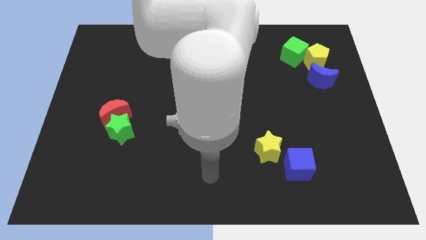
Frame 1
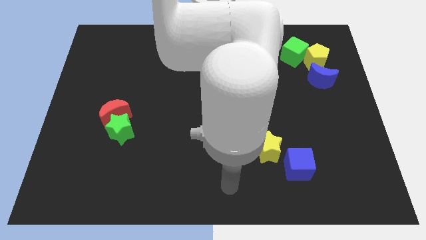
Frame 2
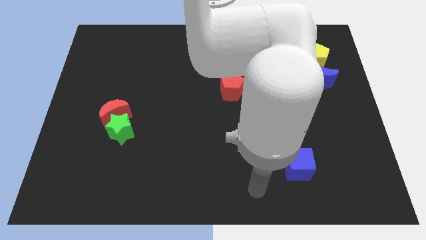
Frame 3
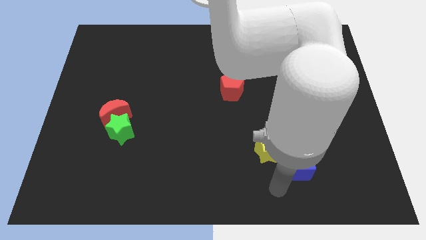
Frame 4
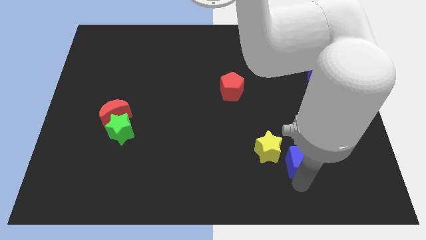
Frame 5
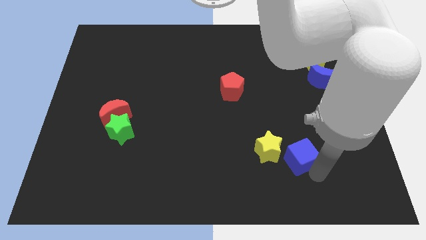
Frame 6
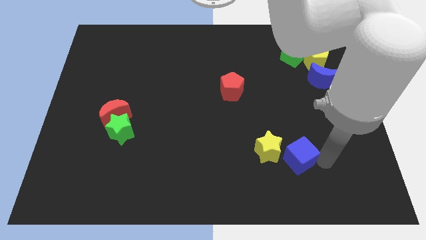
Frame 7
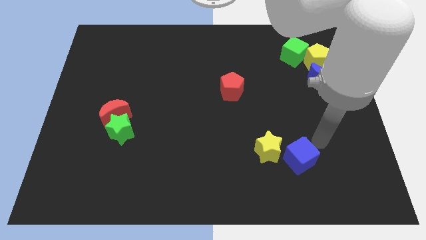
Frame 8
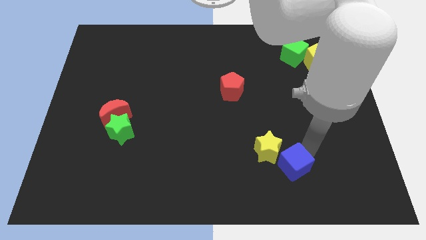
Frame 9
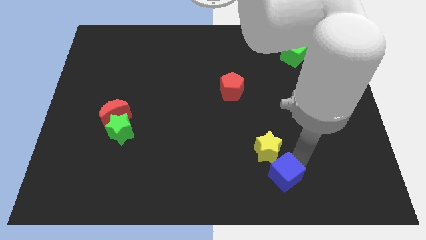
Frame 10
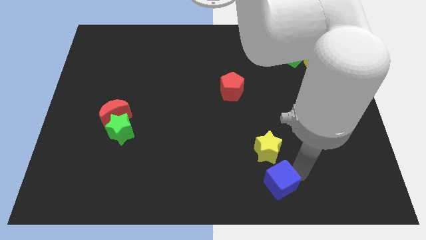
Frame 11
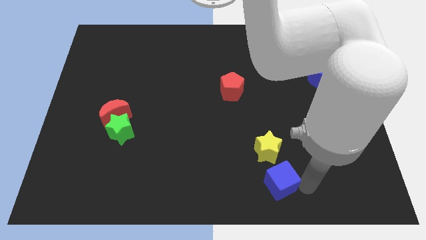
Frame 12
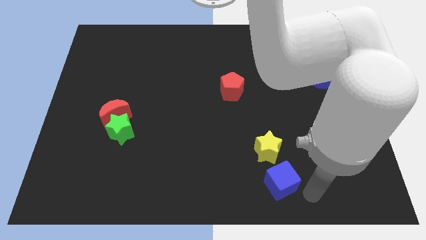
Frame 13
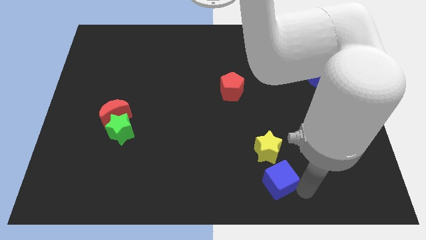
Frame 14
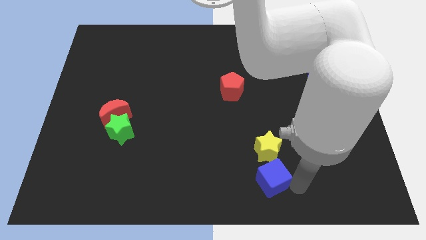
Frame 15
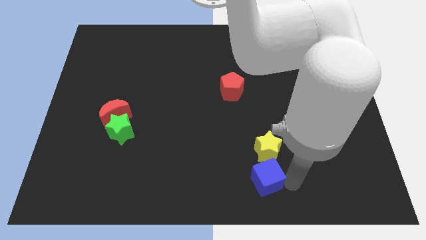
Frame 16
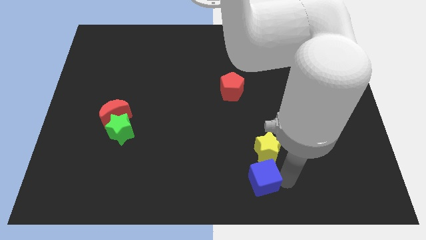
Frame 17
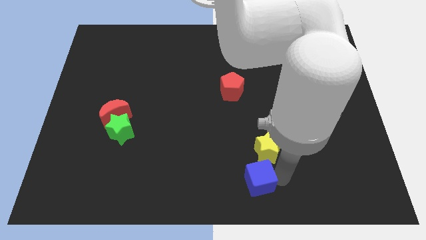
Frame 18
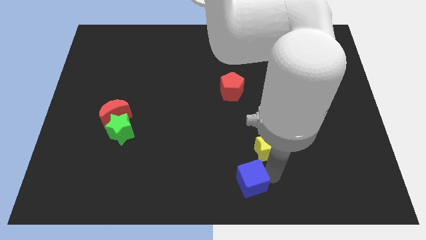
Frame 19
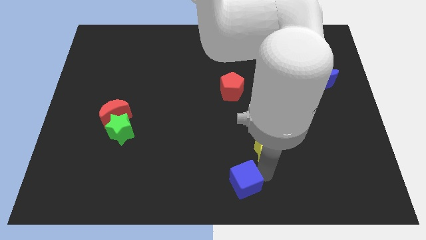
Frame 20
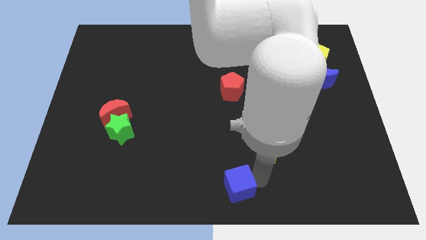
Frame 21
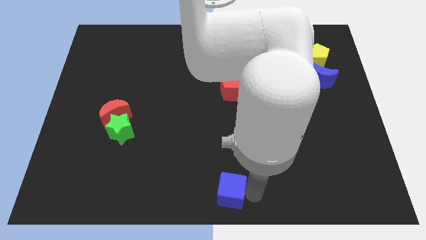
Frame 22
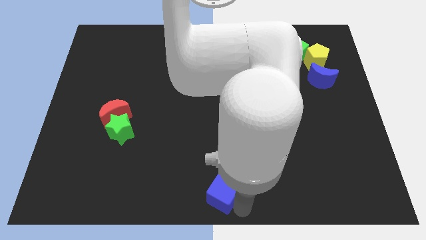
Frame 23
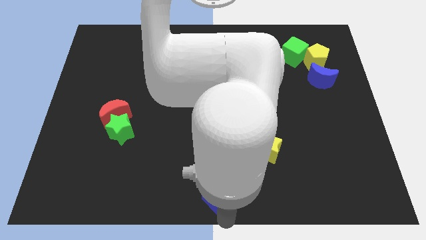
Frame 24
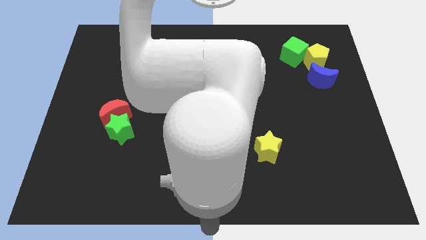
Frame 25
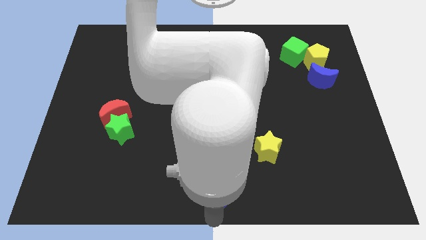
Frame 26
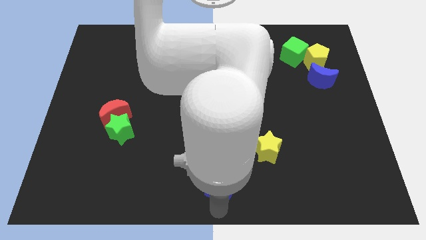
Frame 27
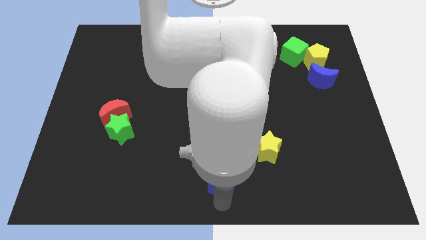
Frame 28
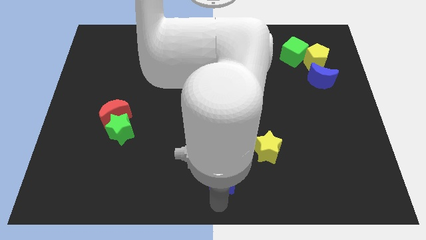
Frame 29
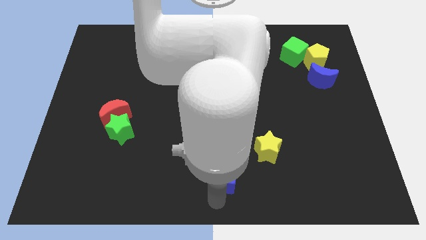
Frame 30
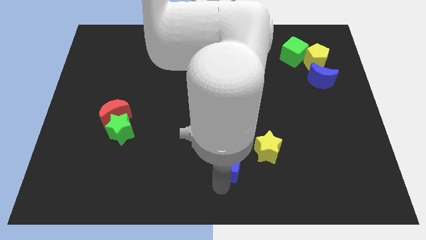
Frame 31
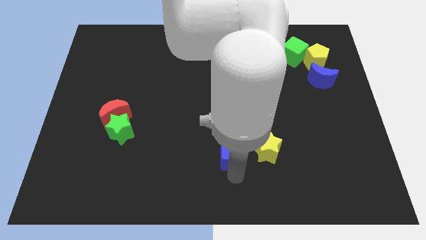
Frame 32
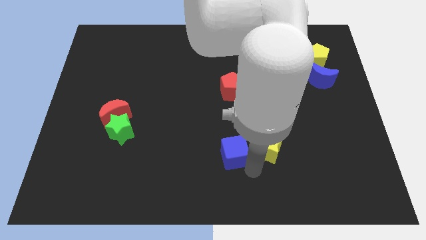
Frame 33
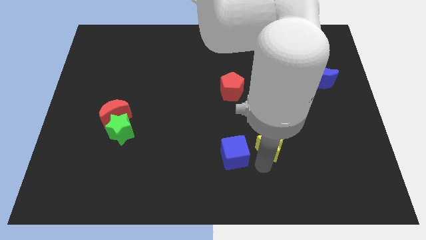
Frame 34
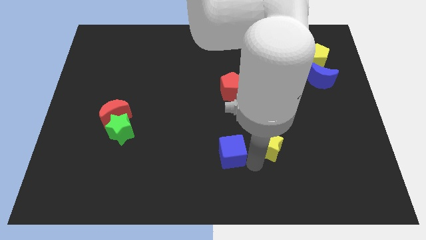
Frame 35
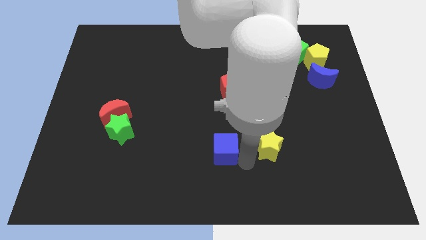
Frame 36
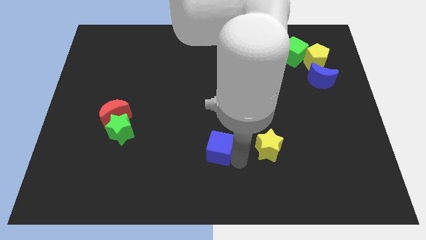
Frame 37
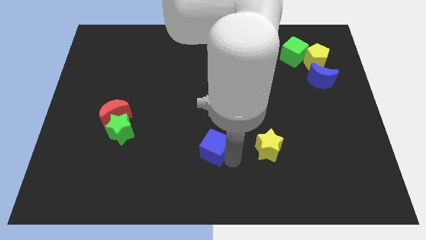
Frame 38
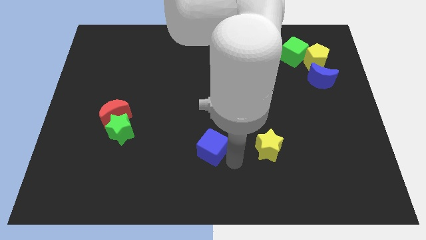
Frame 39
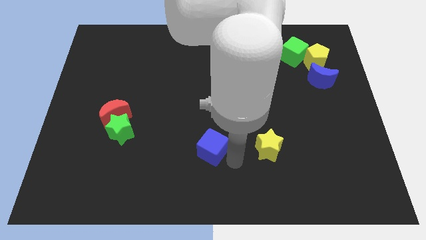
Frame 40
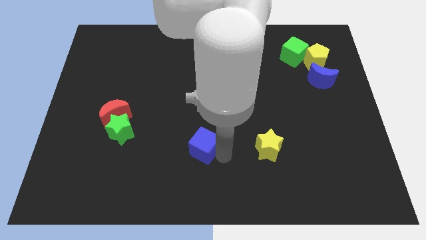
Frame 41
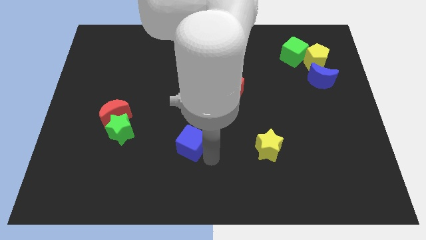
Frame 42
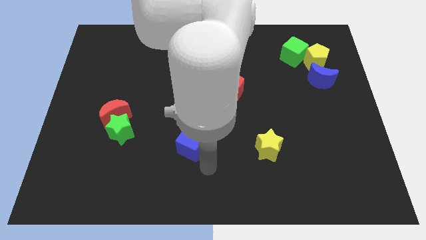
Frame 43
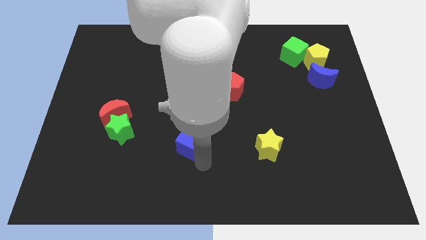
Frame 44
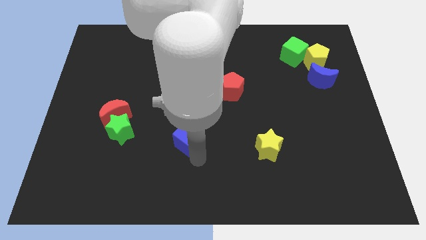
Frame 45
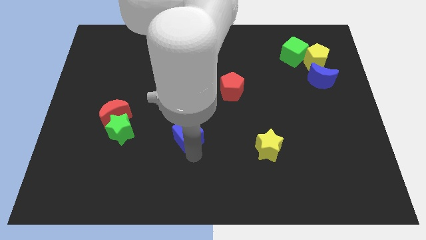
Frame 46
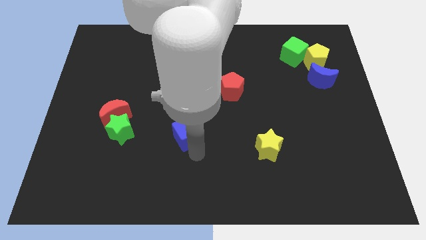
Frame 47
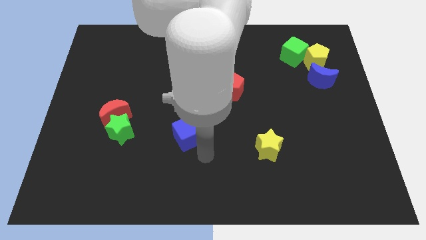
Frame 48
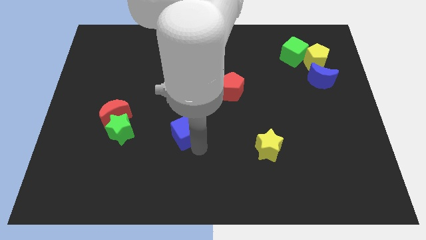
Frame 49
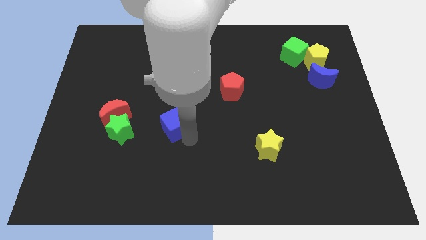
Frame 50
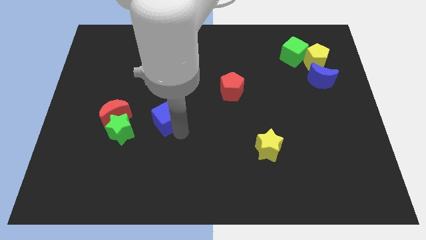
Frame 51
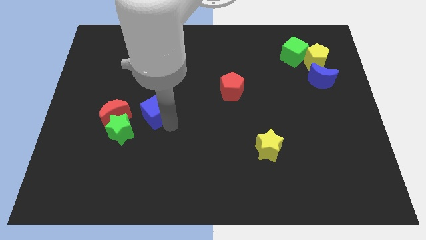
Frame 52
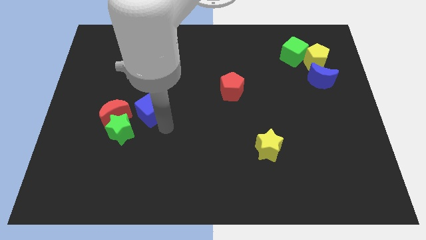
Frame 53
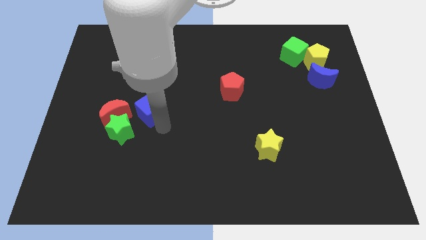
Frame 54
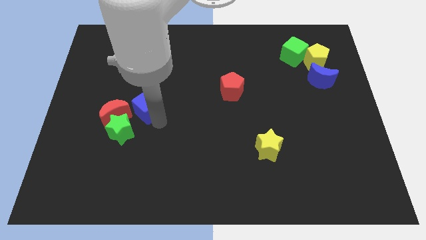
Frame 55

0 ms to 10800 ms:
put the blue cube to the top right side of the red moon

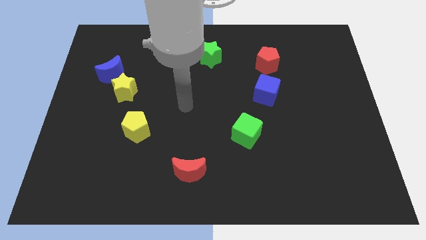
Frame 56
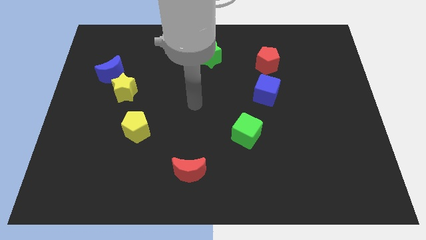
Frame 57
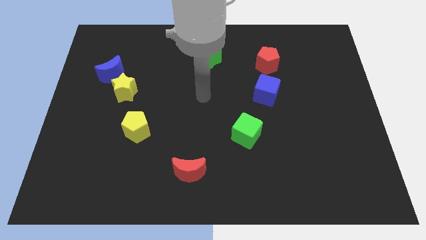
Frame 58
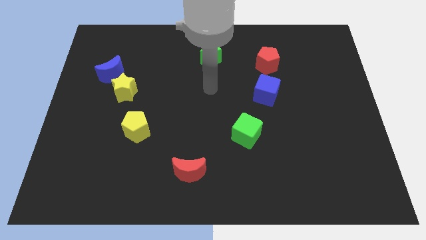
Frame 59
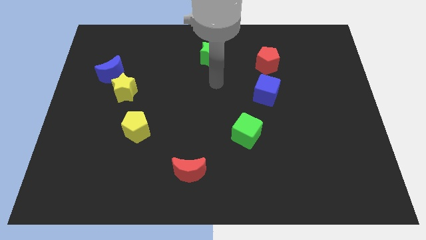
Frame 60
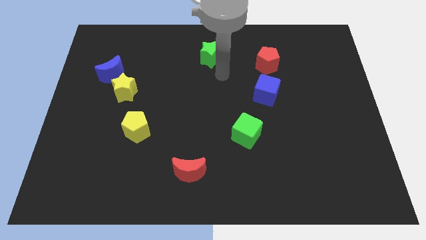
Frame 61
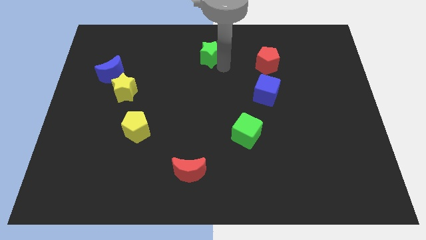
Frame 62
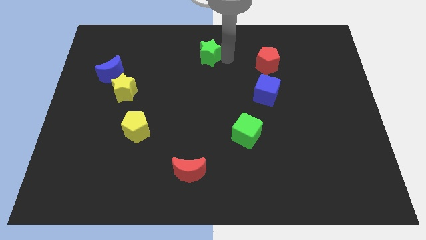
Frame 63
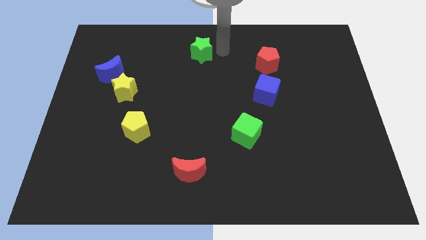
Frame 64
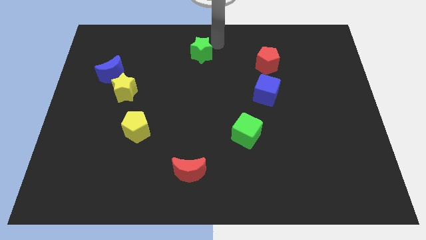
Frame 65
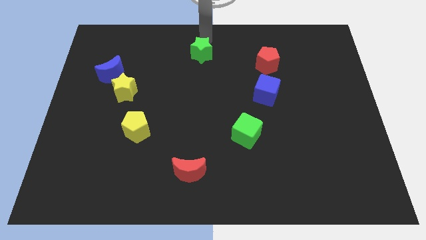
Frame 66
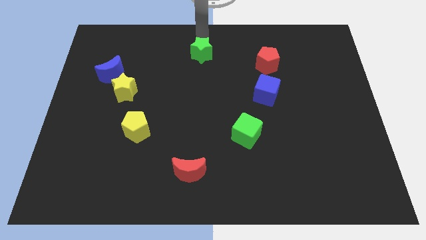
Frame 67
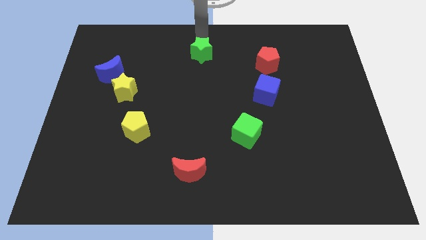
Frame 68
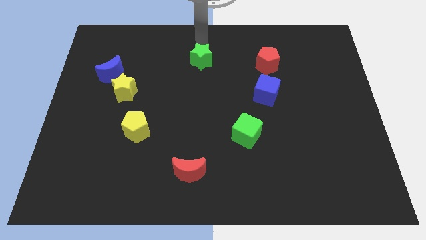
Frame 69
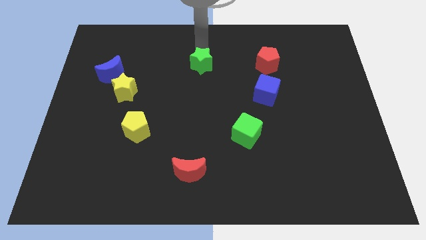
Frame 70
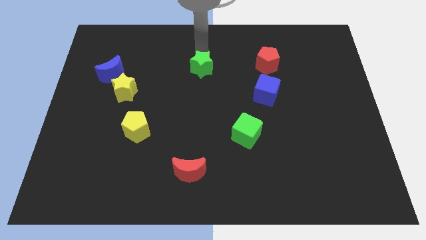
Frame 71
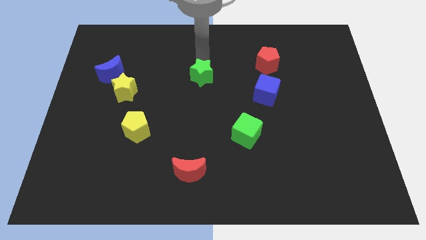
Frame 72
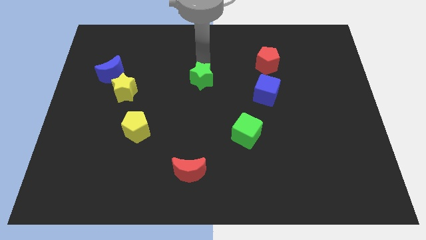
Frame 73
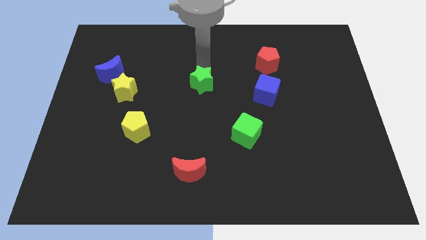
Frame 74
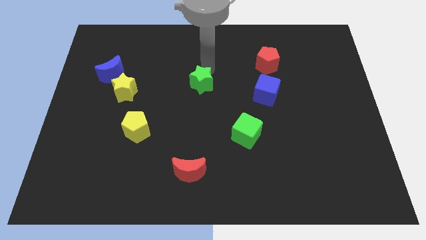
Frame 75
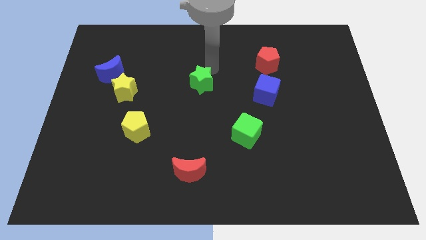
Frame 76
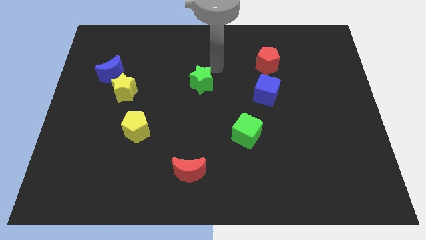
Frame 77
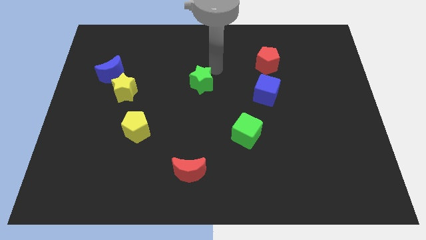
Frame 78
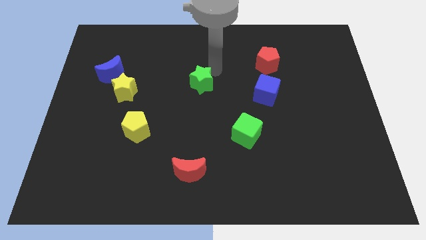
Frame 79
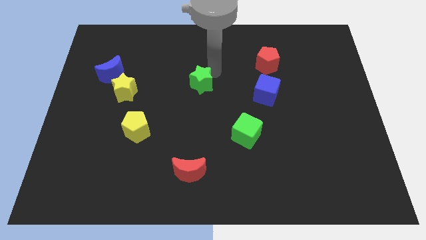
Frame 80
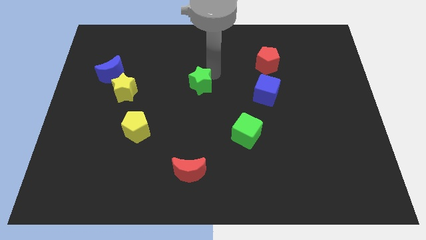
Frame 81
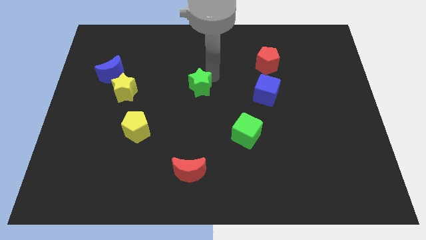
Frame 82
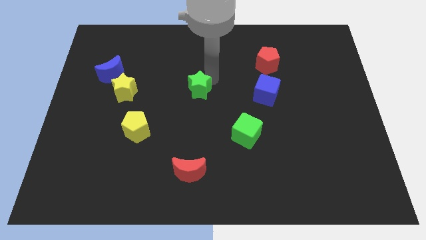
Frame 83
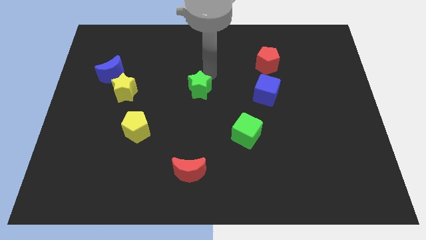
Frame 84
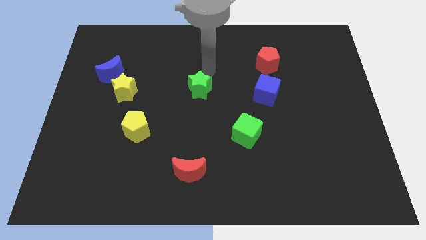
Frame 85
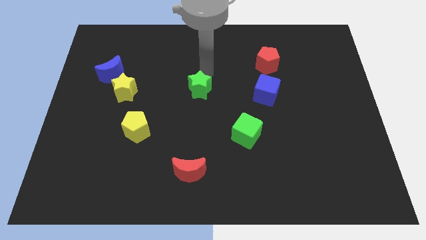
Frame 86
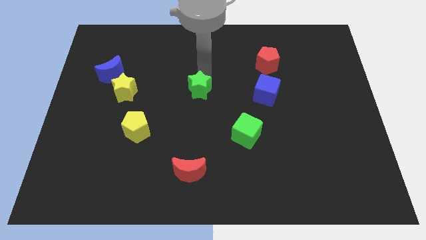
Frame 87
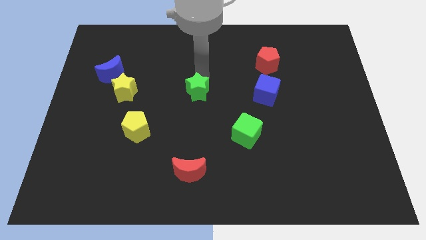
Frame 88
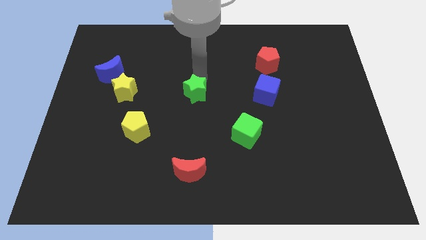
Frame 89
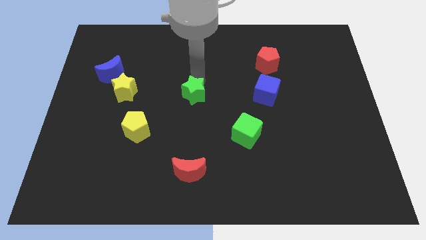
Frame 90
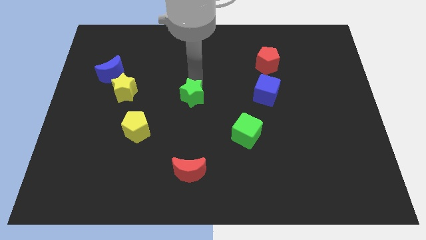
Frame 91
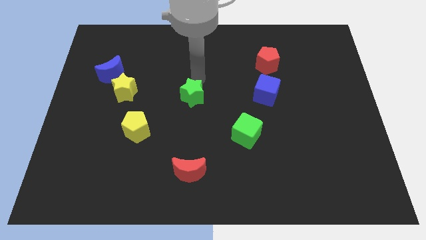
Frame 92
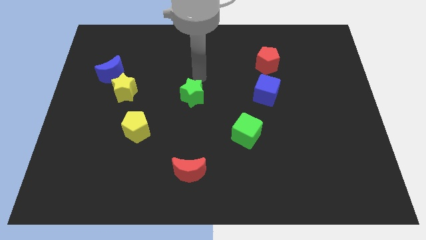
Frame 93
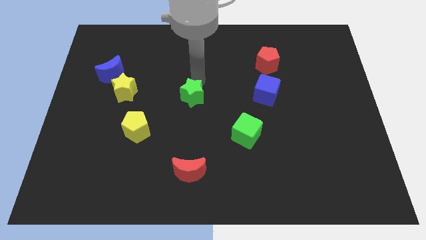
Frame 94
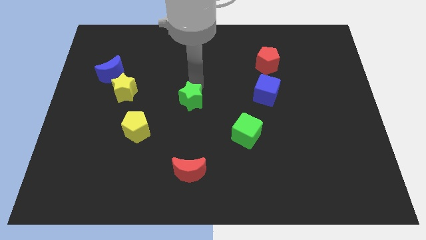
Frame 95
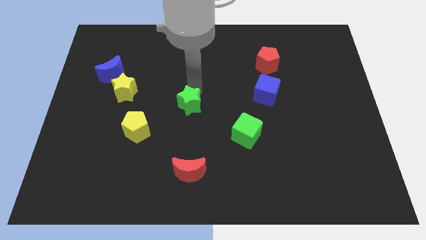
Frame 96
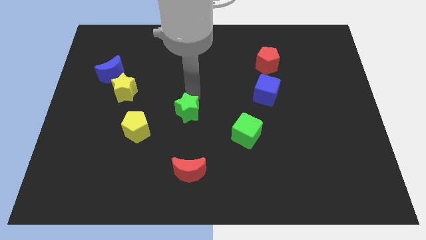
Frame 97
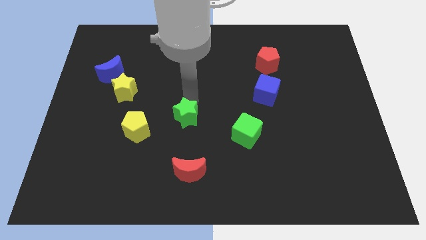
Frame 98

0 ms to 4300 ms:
put the green star to the right side of the yellow pentagon
